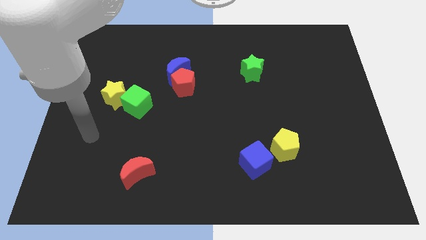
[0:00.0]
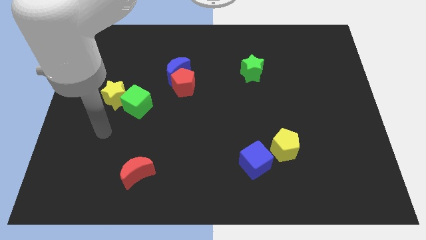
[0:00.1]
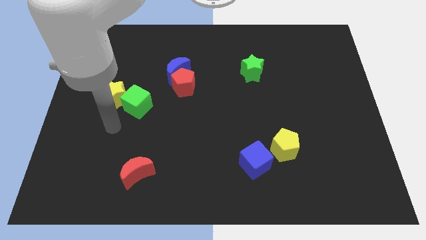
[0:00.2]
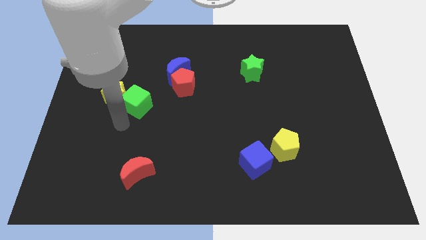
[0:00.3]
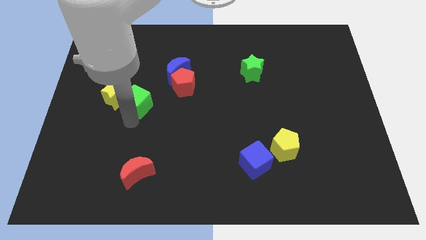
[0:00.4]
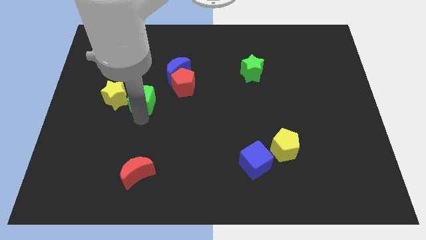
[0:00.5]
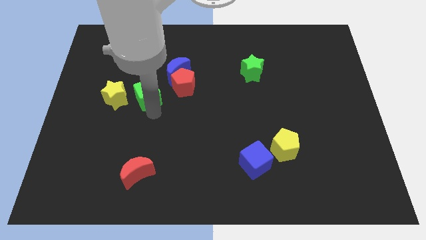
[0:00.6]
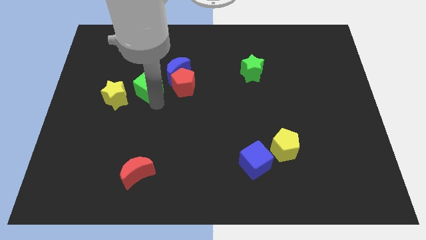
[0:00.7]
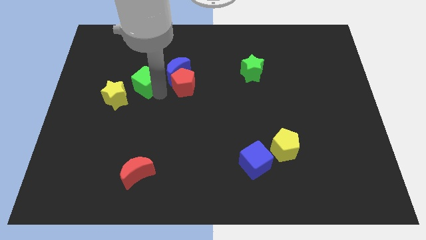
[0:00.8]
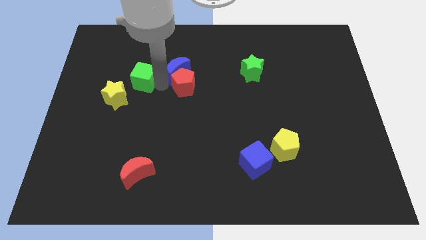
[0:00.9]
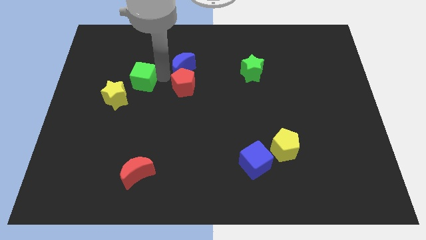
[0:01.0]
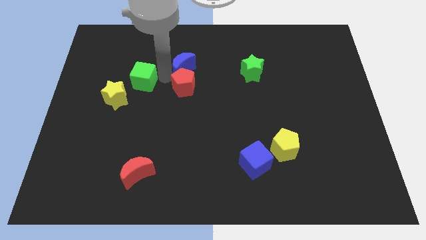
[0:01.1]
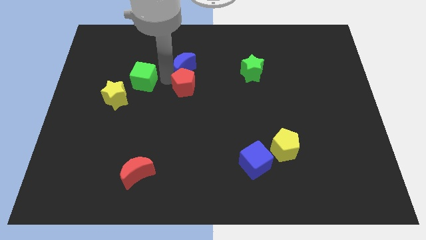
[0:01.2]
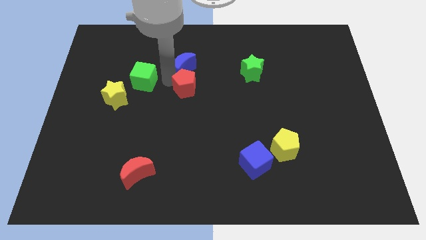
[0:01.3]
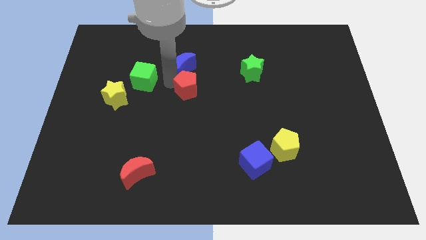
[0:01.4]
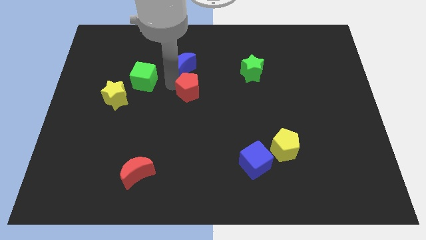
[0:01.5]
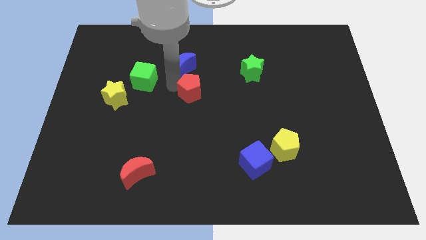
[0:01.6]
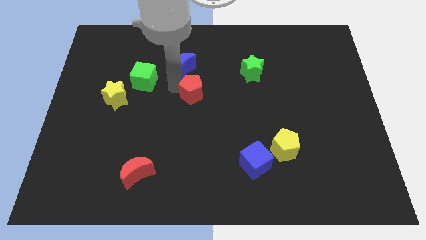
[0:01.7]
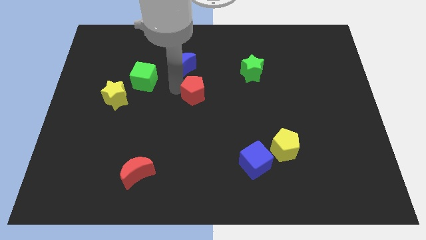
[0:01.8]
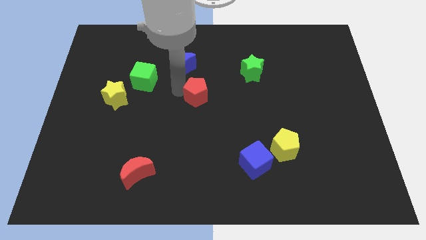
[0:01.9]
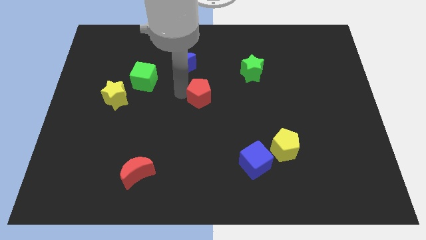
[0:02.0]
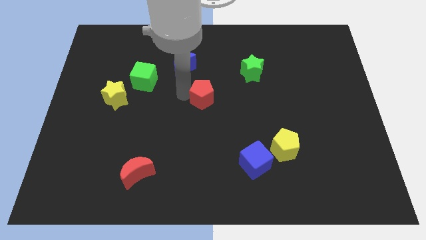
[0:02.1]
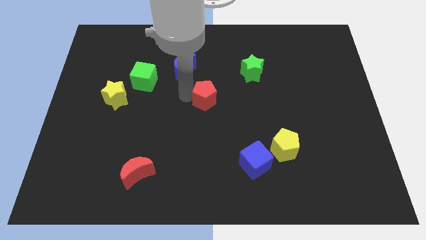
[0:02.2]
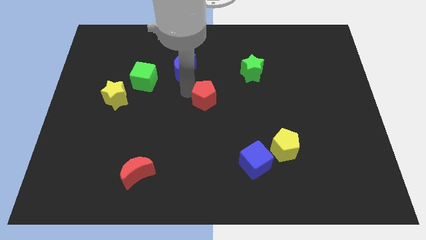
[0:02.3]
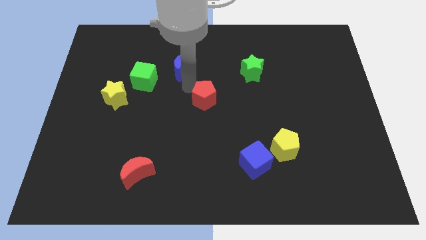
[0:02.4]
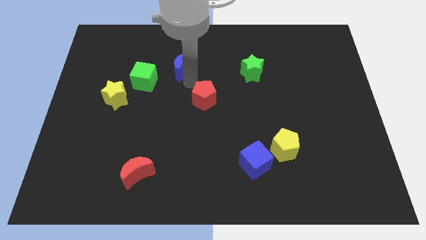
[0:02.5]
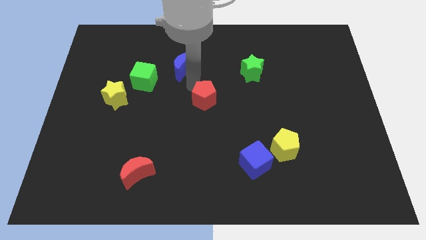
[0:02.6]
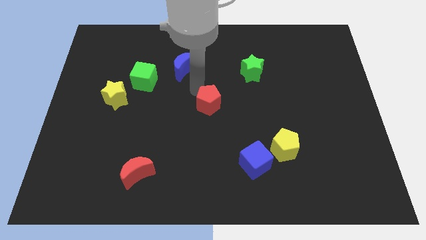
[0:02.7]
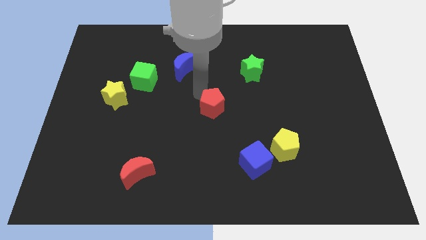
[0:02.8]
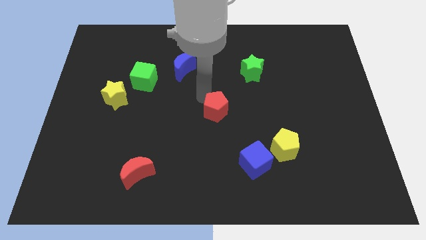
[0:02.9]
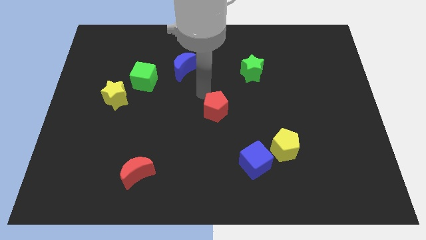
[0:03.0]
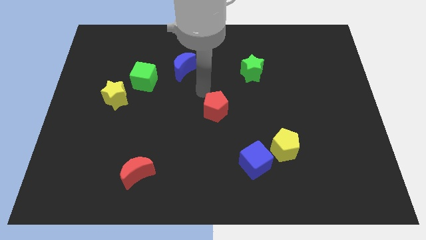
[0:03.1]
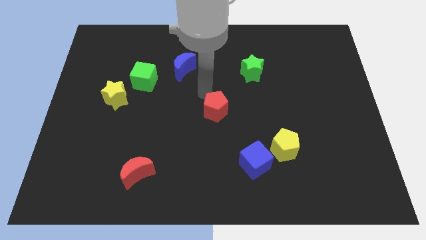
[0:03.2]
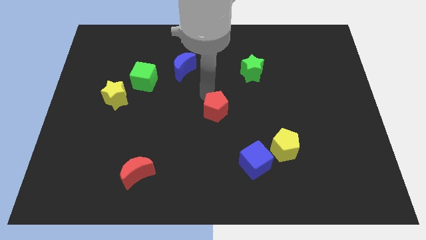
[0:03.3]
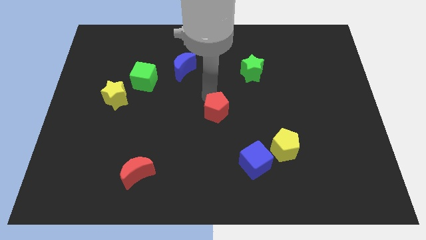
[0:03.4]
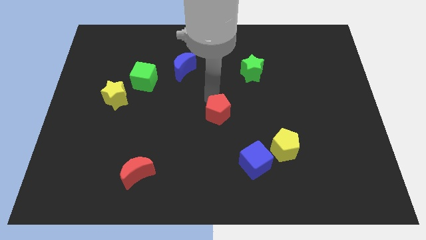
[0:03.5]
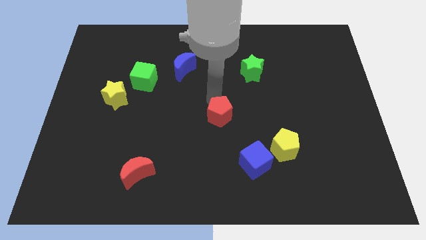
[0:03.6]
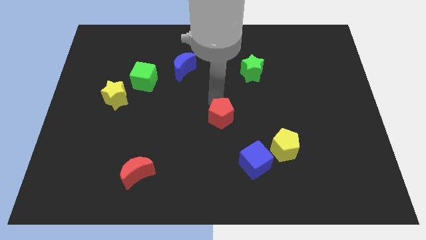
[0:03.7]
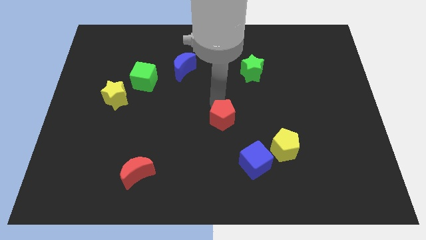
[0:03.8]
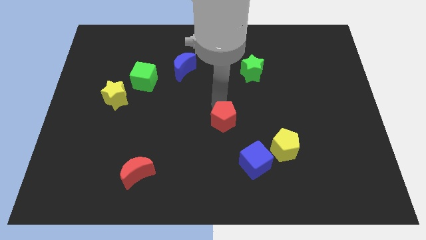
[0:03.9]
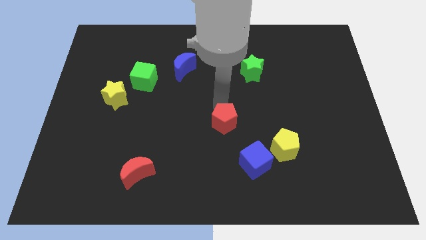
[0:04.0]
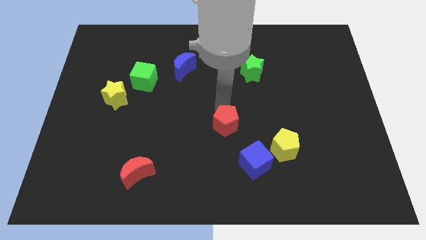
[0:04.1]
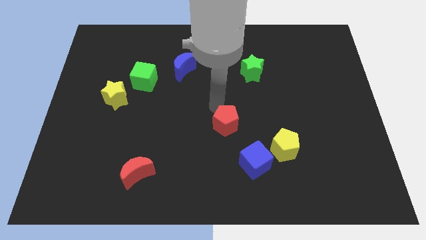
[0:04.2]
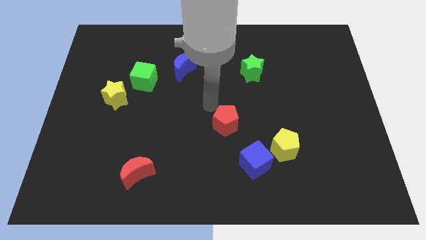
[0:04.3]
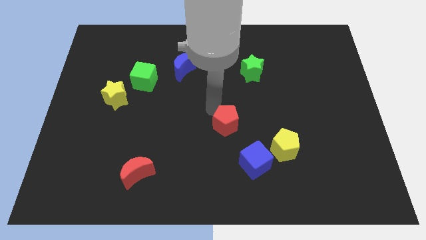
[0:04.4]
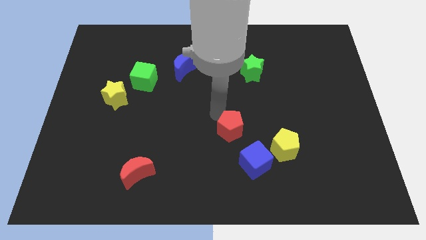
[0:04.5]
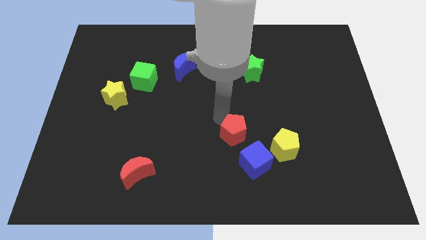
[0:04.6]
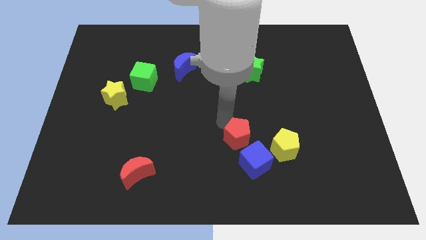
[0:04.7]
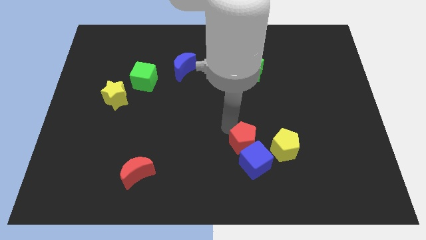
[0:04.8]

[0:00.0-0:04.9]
push the red pentagon to the blue cube

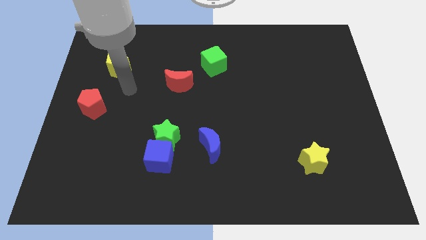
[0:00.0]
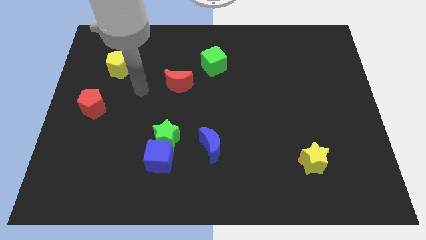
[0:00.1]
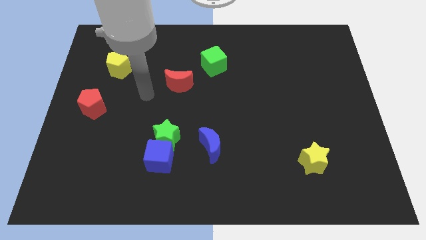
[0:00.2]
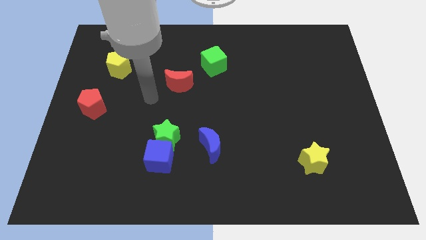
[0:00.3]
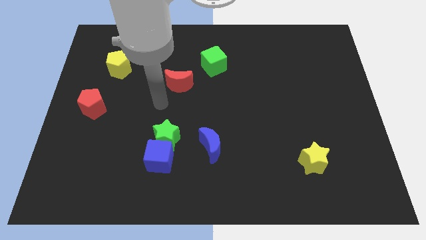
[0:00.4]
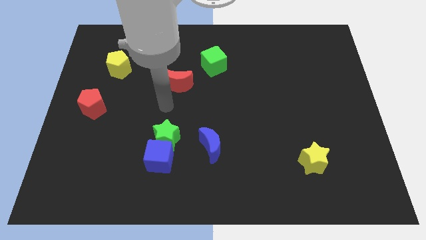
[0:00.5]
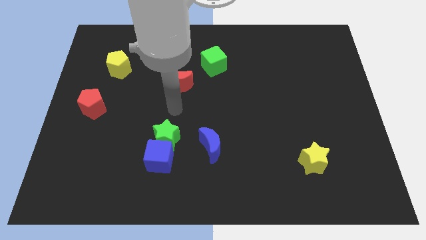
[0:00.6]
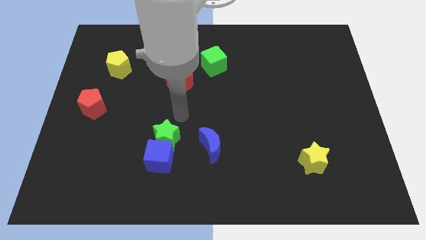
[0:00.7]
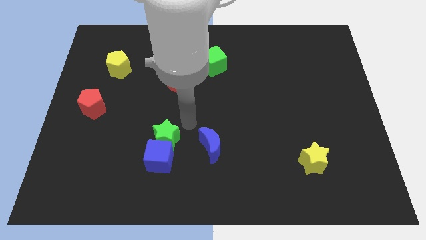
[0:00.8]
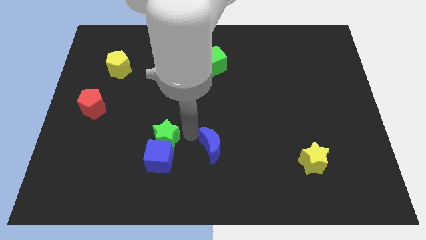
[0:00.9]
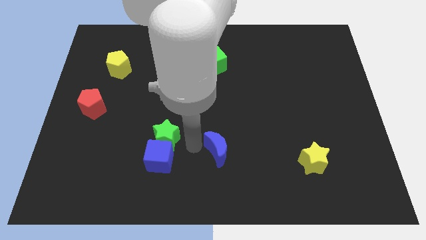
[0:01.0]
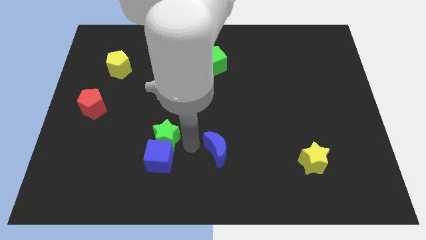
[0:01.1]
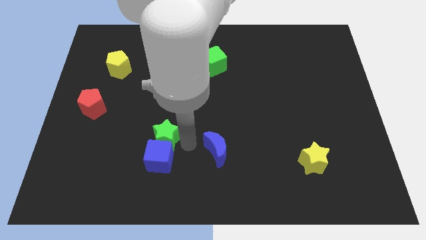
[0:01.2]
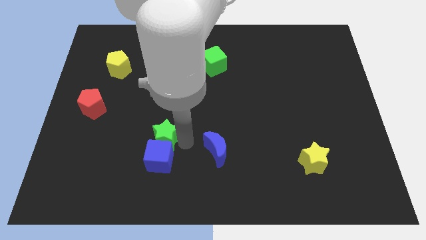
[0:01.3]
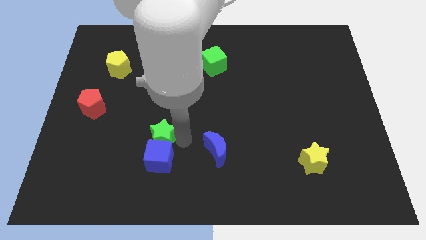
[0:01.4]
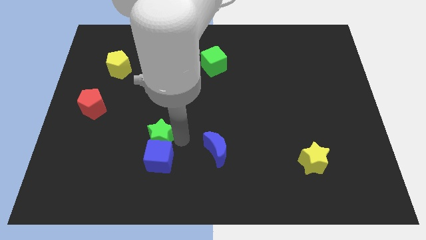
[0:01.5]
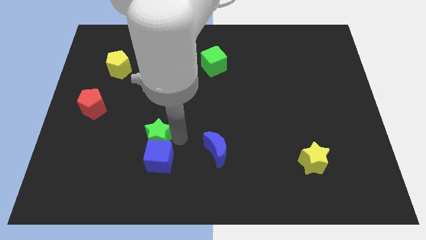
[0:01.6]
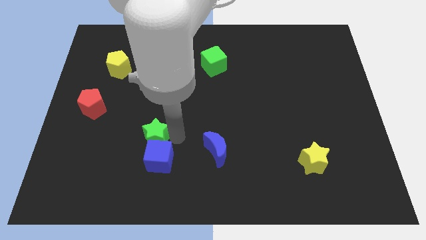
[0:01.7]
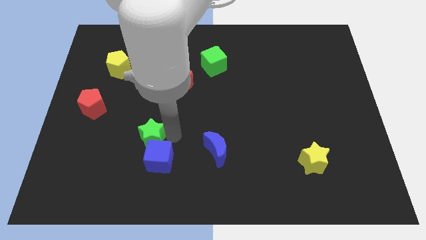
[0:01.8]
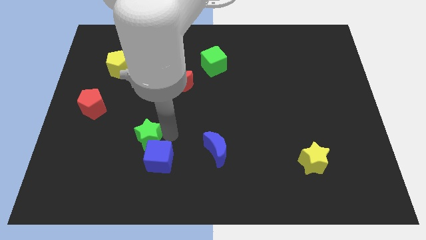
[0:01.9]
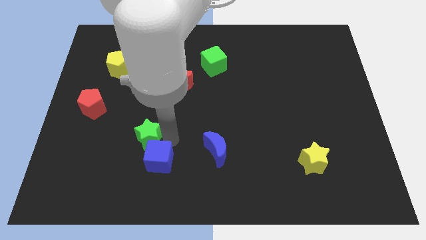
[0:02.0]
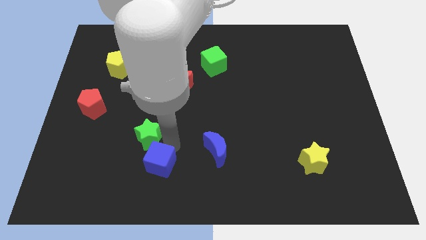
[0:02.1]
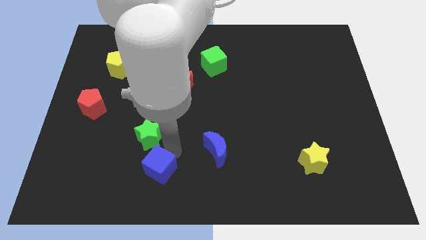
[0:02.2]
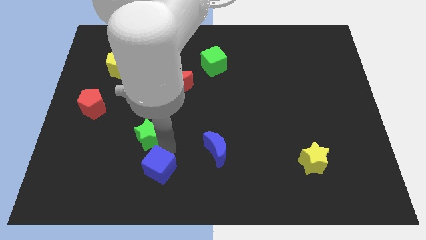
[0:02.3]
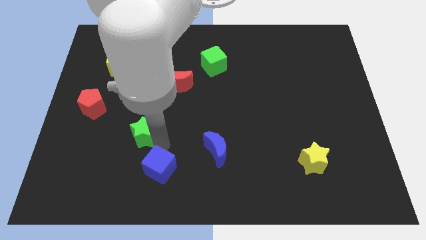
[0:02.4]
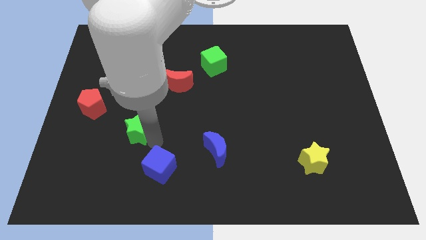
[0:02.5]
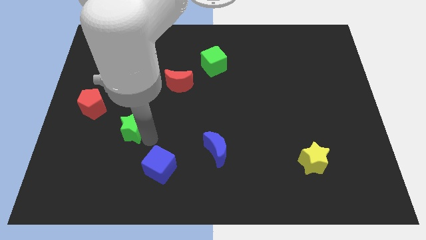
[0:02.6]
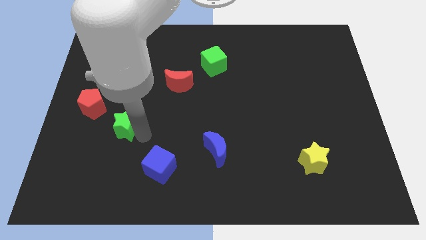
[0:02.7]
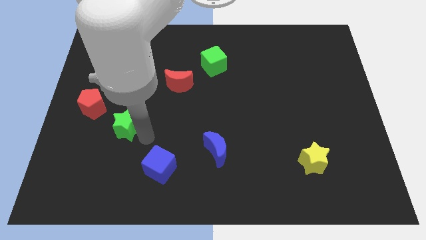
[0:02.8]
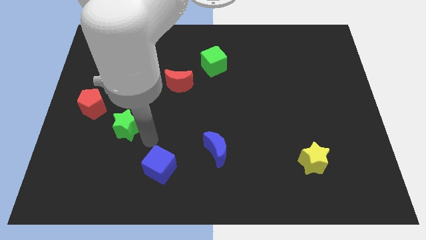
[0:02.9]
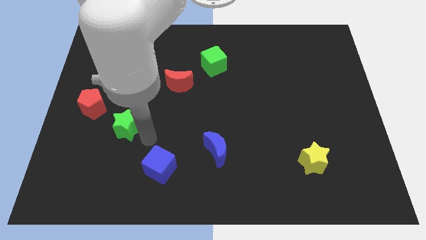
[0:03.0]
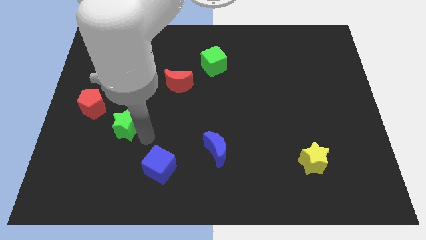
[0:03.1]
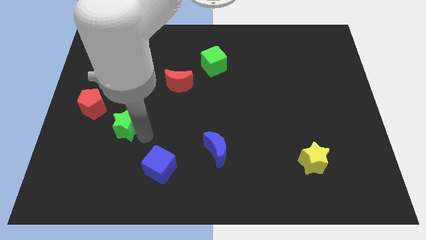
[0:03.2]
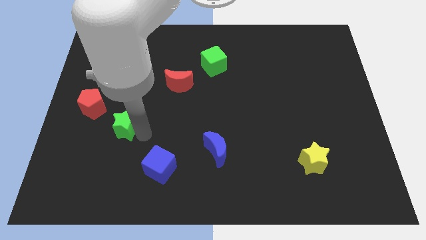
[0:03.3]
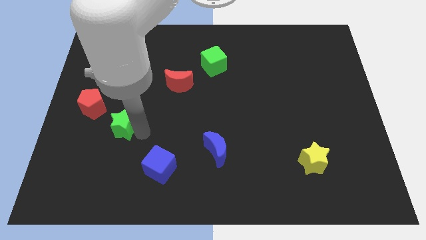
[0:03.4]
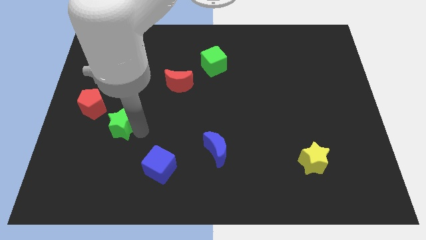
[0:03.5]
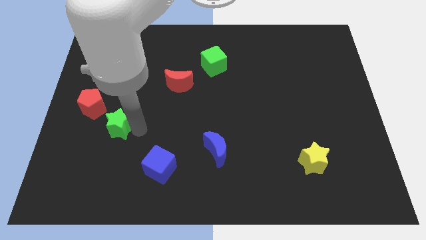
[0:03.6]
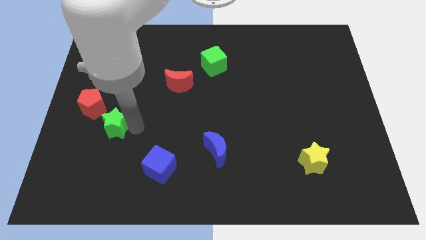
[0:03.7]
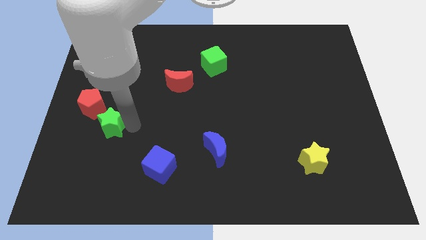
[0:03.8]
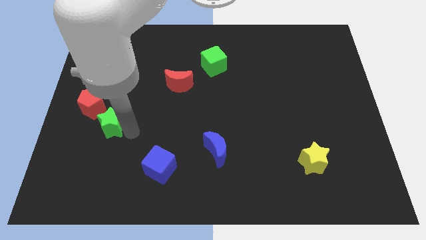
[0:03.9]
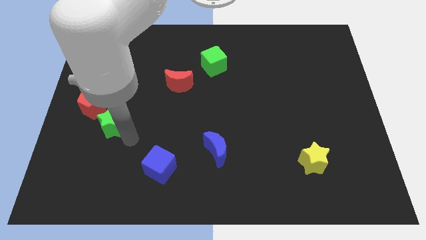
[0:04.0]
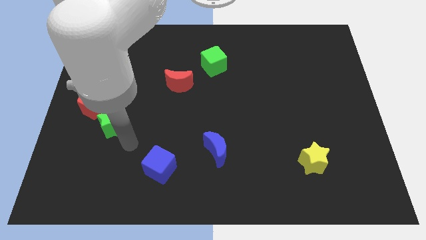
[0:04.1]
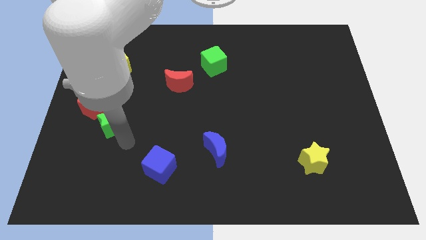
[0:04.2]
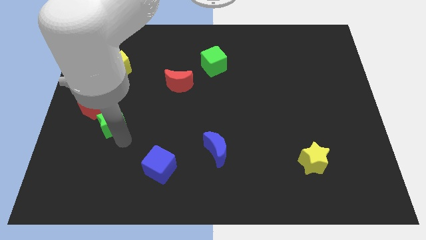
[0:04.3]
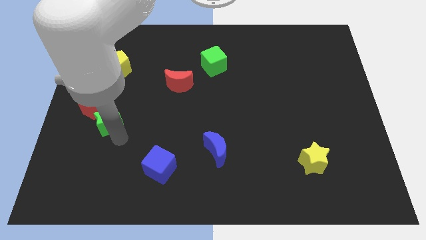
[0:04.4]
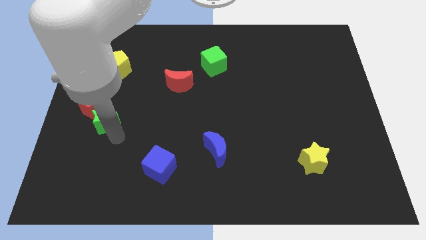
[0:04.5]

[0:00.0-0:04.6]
push the green star to the red pentagon
